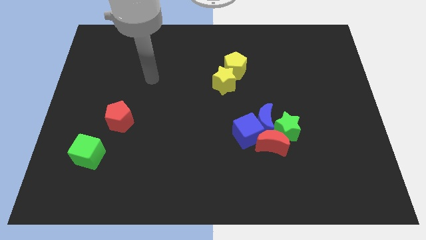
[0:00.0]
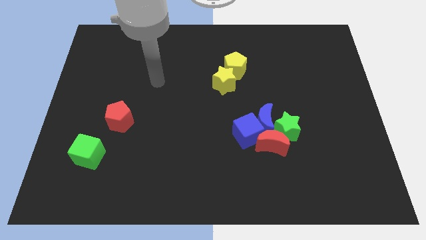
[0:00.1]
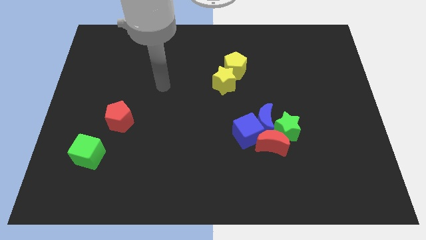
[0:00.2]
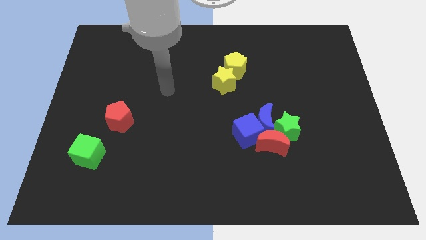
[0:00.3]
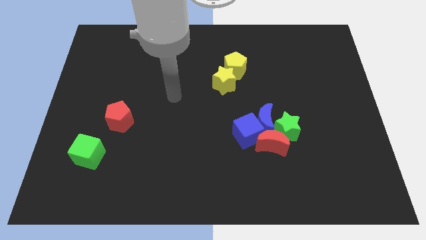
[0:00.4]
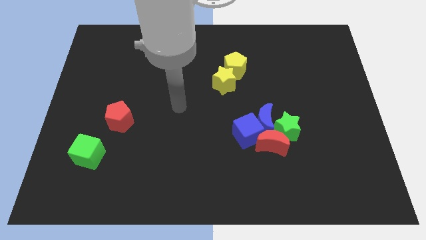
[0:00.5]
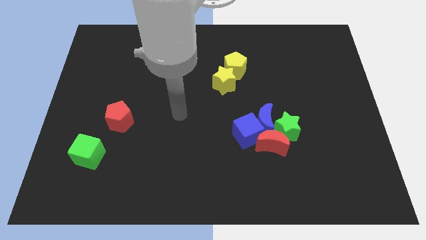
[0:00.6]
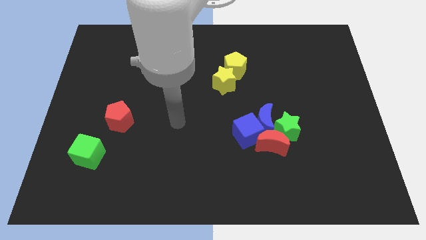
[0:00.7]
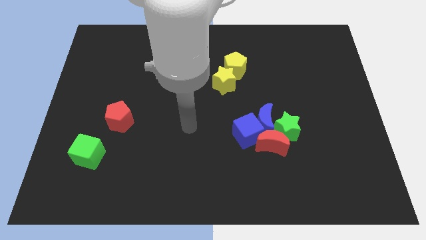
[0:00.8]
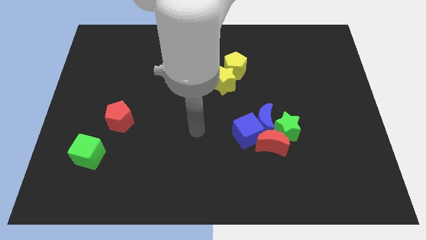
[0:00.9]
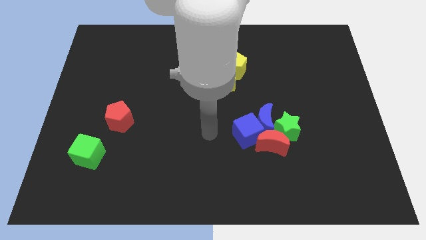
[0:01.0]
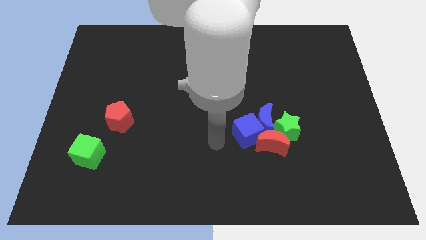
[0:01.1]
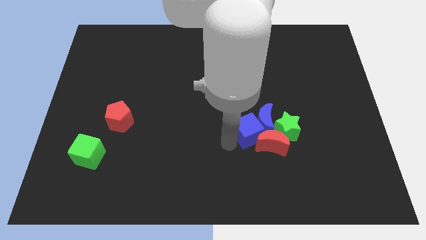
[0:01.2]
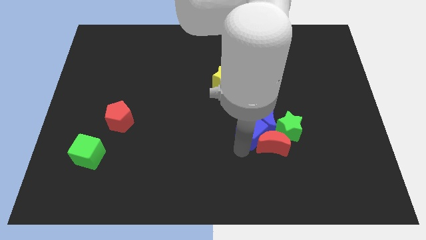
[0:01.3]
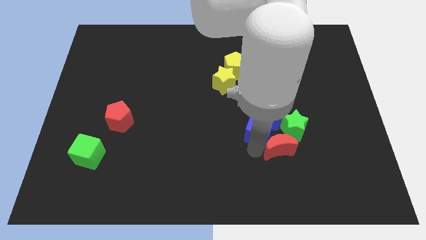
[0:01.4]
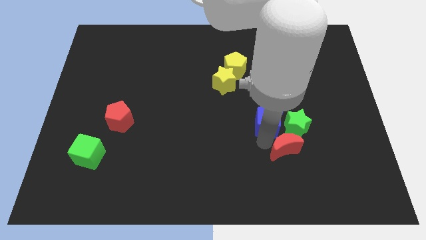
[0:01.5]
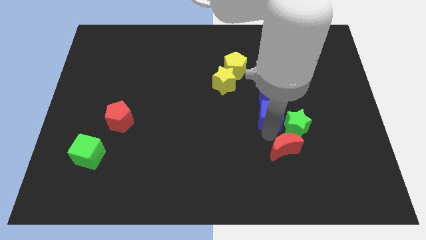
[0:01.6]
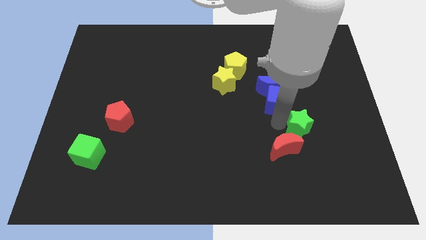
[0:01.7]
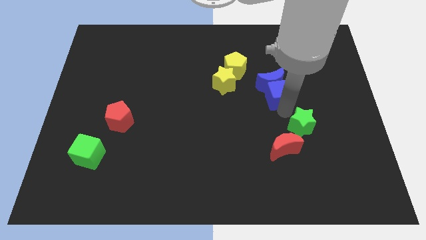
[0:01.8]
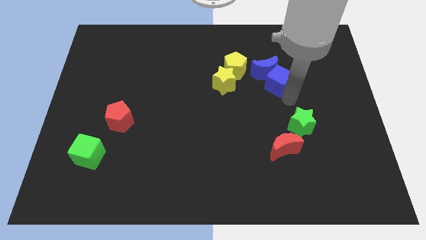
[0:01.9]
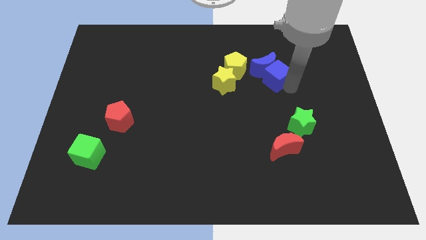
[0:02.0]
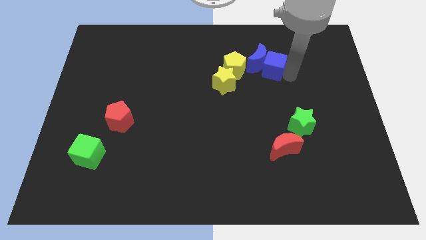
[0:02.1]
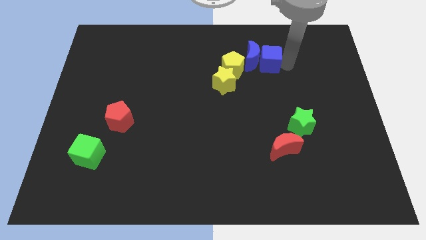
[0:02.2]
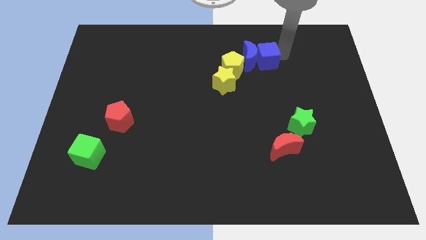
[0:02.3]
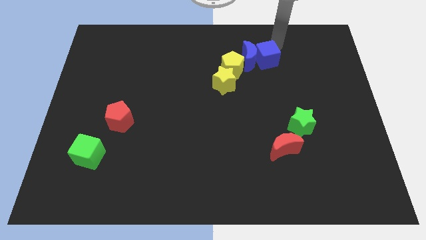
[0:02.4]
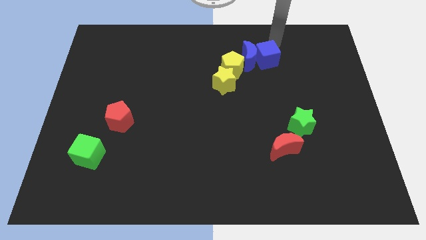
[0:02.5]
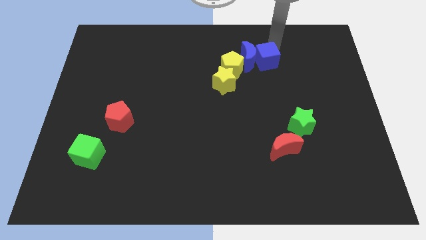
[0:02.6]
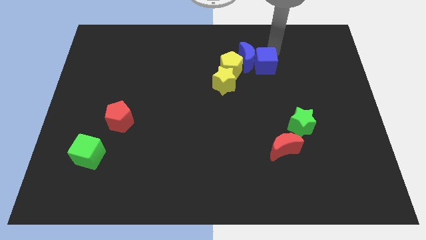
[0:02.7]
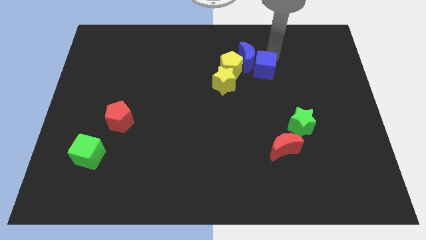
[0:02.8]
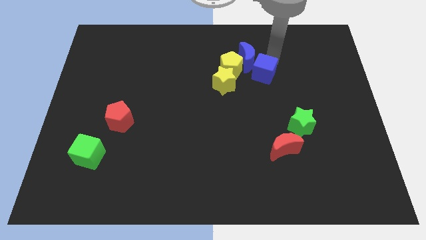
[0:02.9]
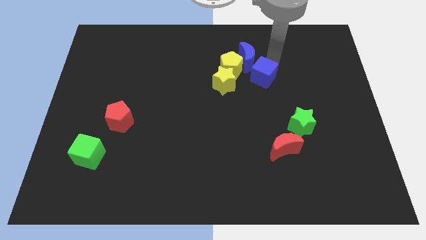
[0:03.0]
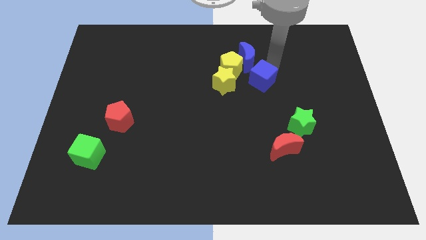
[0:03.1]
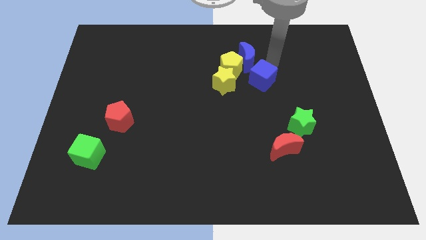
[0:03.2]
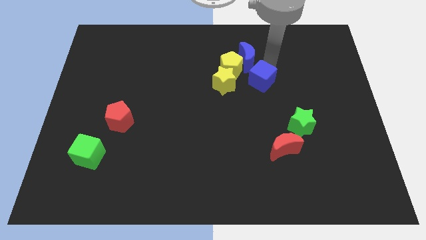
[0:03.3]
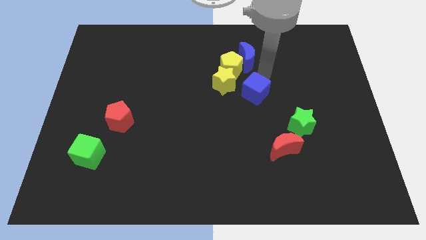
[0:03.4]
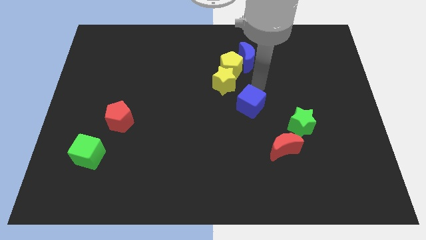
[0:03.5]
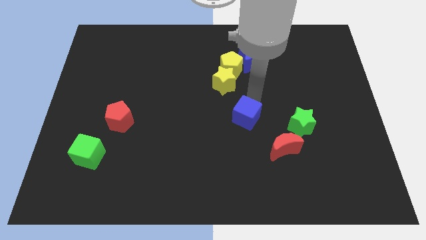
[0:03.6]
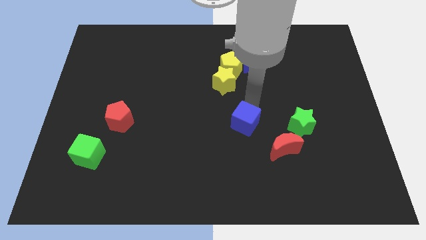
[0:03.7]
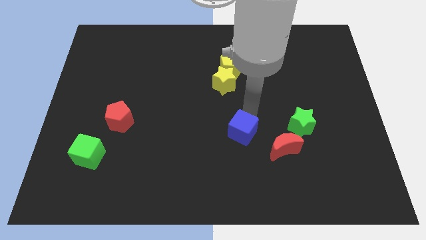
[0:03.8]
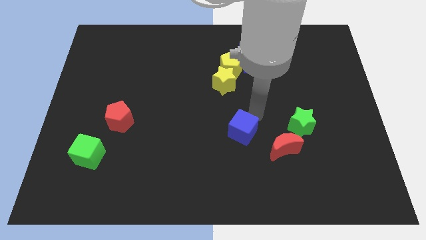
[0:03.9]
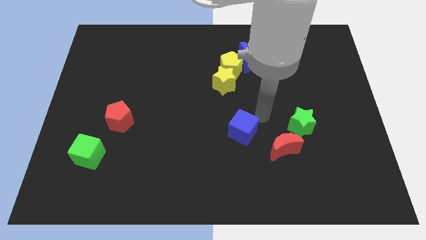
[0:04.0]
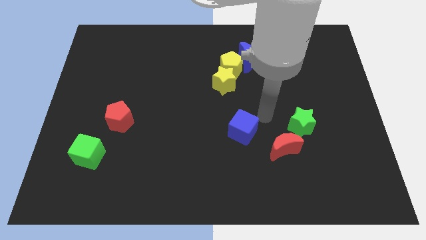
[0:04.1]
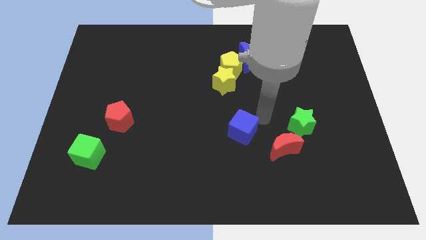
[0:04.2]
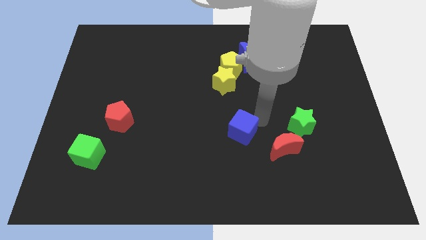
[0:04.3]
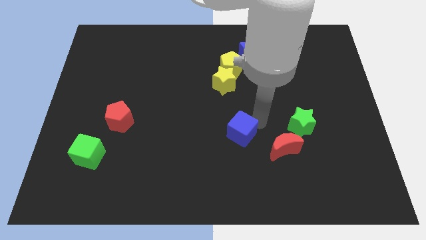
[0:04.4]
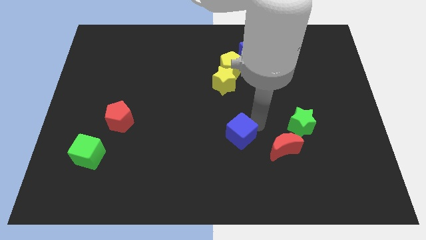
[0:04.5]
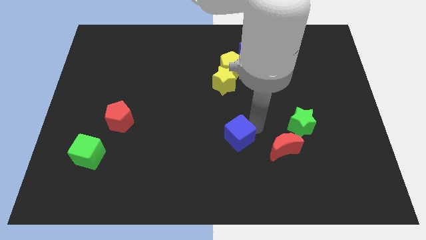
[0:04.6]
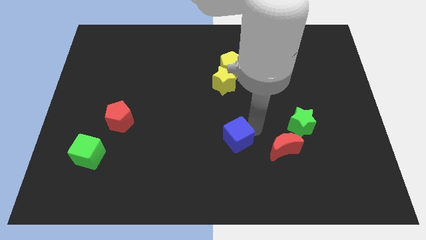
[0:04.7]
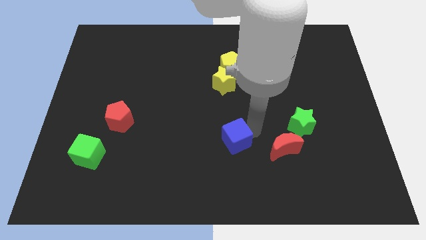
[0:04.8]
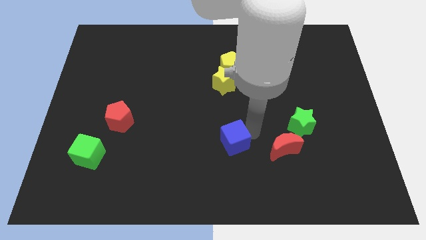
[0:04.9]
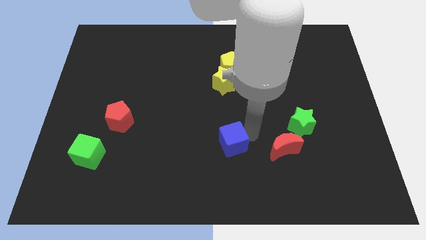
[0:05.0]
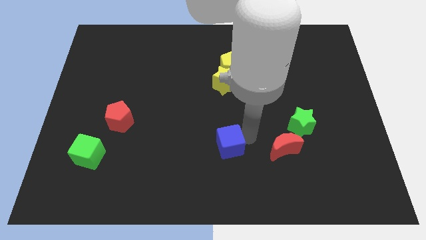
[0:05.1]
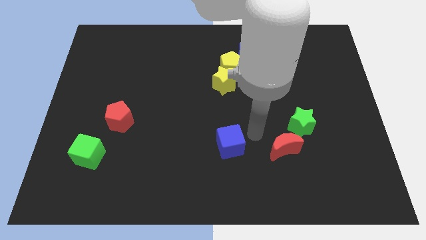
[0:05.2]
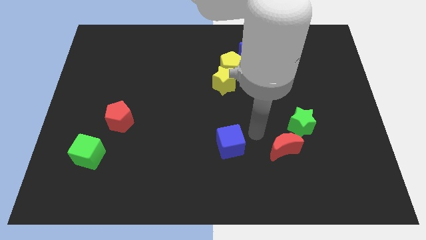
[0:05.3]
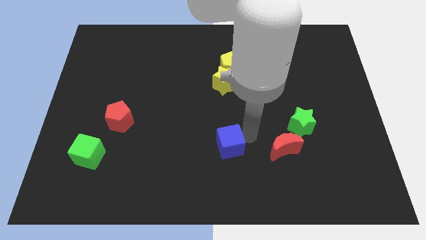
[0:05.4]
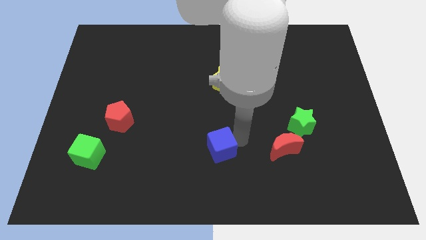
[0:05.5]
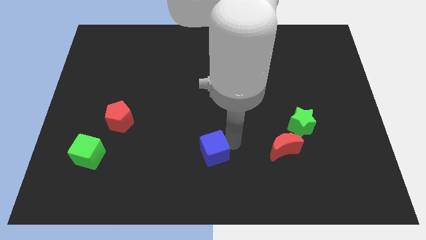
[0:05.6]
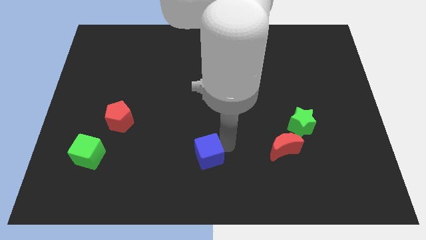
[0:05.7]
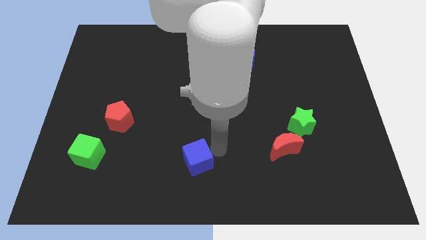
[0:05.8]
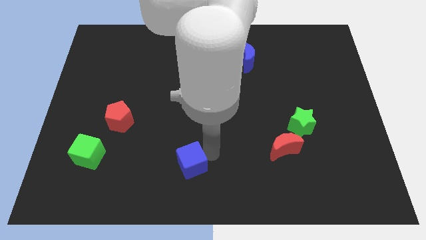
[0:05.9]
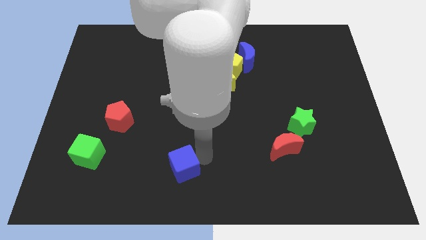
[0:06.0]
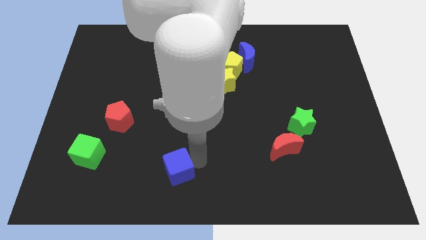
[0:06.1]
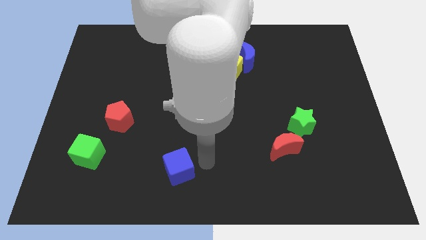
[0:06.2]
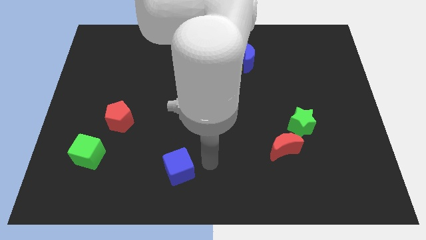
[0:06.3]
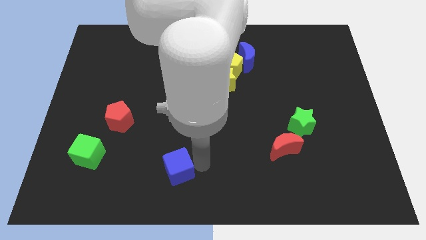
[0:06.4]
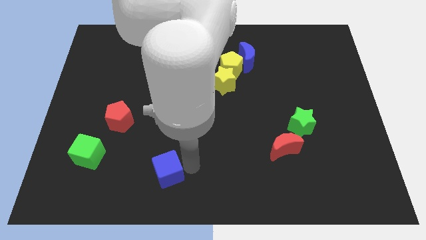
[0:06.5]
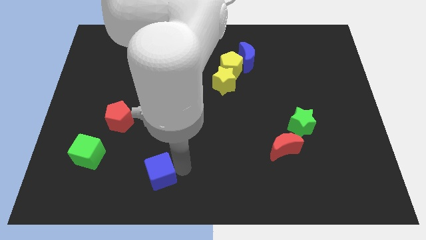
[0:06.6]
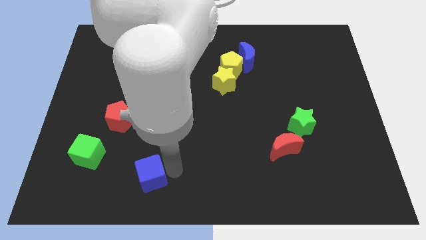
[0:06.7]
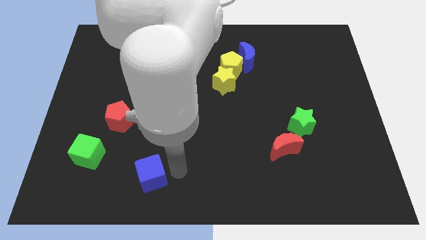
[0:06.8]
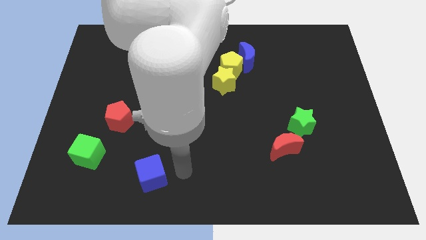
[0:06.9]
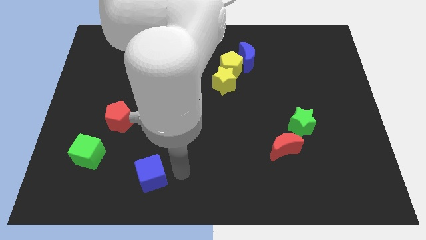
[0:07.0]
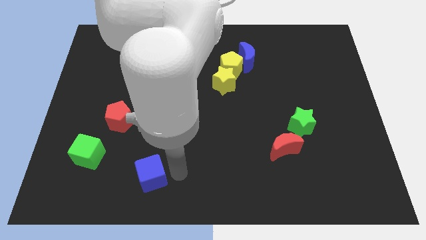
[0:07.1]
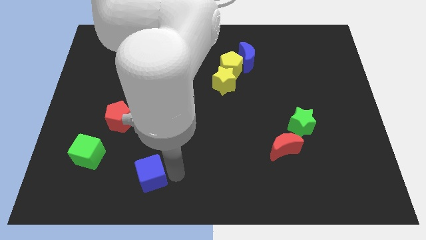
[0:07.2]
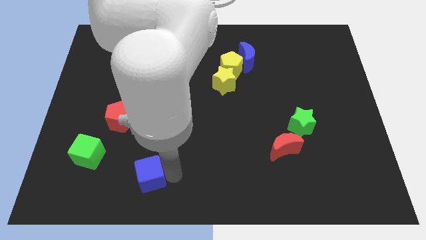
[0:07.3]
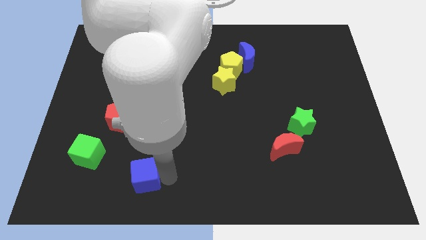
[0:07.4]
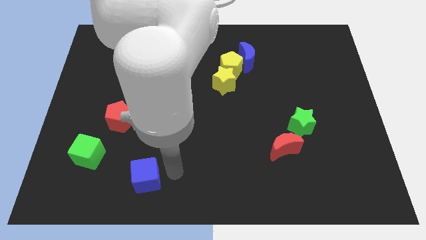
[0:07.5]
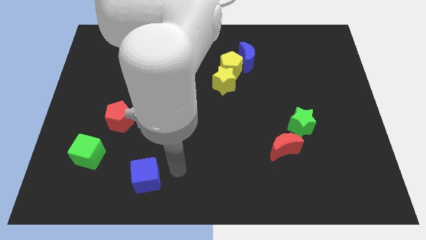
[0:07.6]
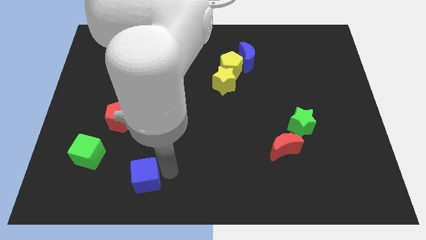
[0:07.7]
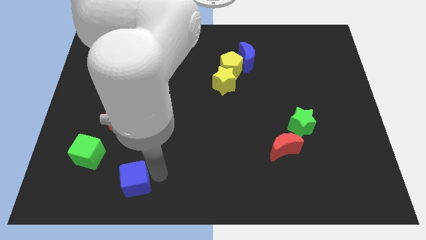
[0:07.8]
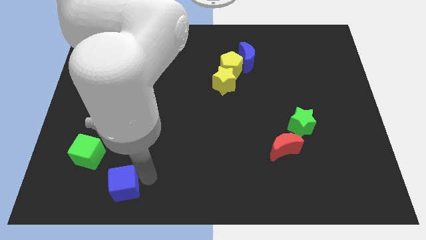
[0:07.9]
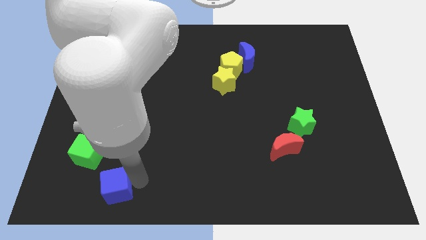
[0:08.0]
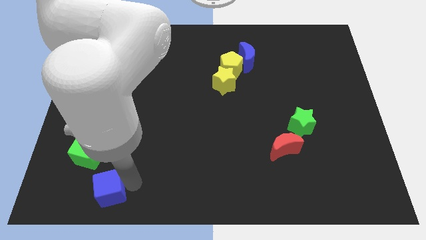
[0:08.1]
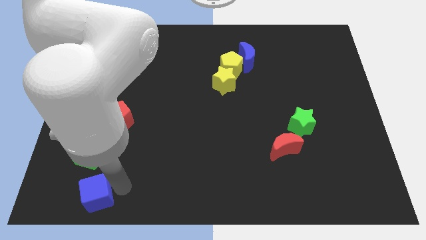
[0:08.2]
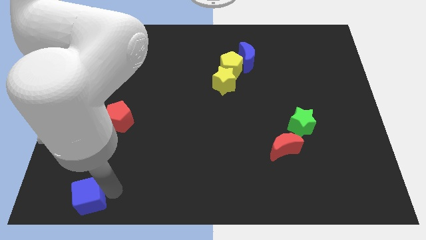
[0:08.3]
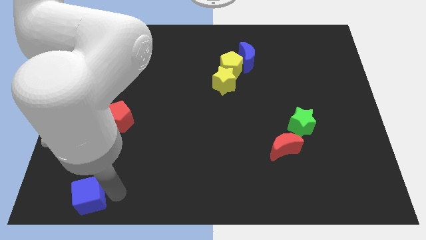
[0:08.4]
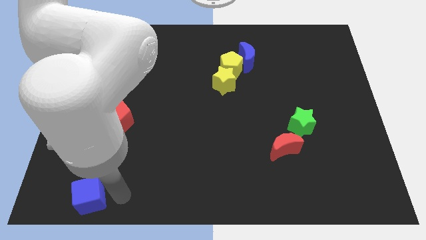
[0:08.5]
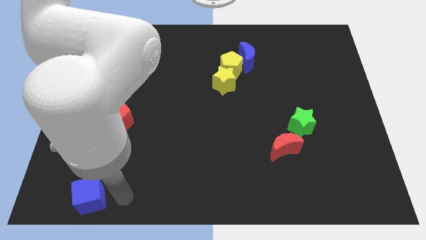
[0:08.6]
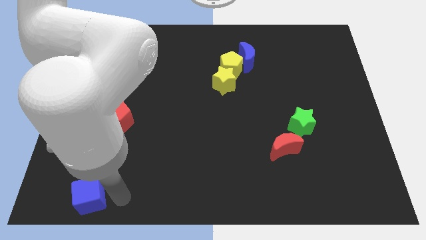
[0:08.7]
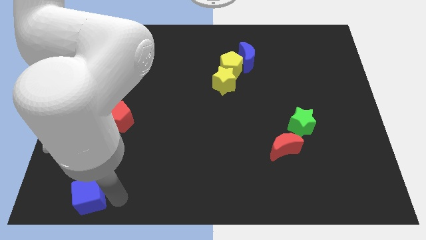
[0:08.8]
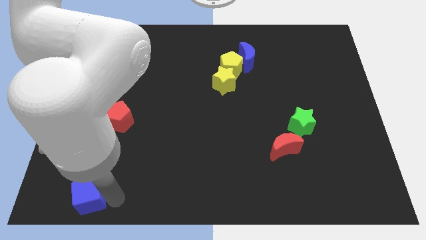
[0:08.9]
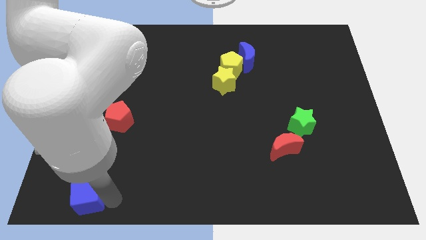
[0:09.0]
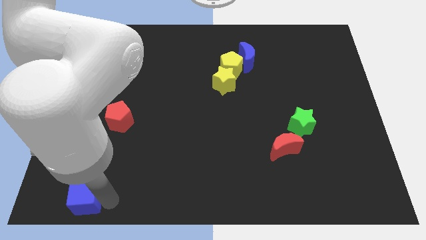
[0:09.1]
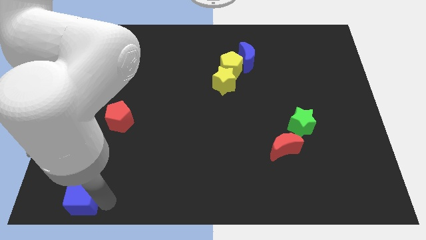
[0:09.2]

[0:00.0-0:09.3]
move the blue cube to the lower left corner
